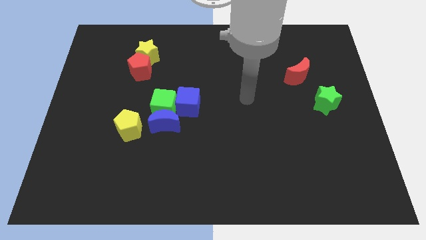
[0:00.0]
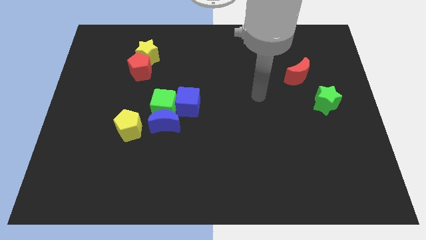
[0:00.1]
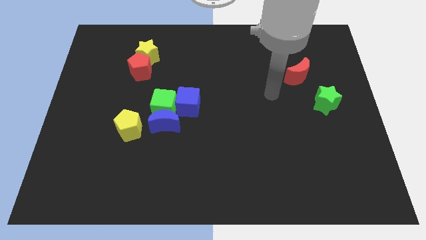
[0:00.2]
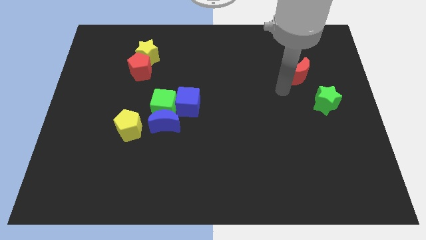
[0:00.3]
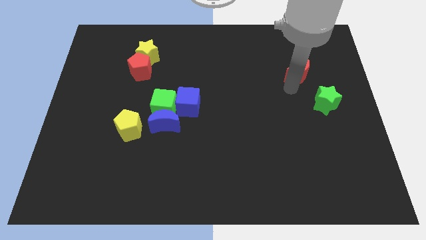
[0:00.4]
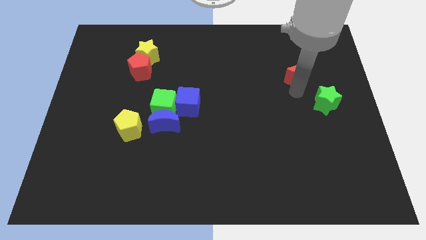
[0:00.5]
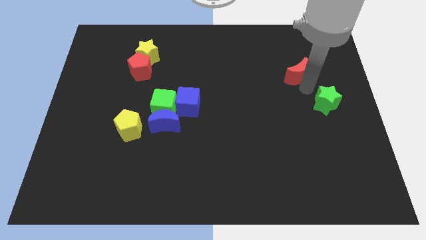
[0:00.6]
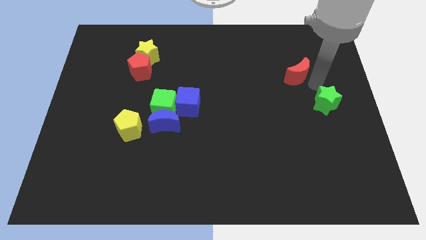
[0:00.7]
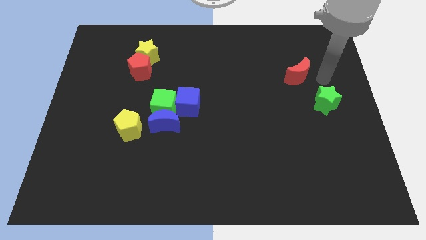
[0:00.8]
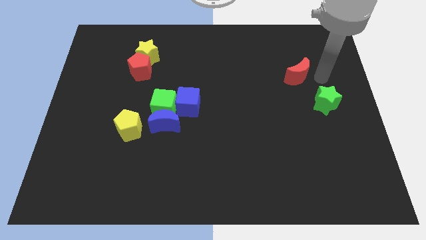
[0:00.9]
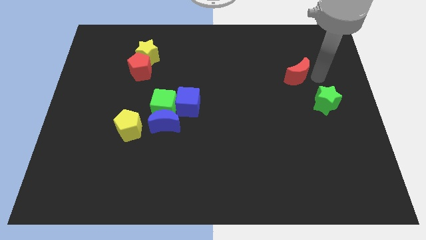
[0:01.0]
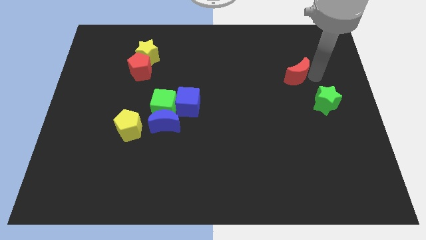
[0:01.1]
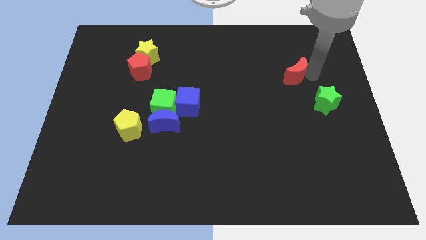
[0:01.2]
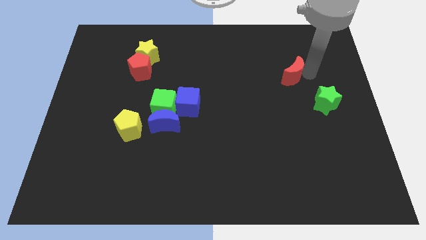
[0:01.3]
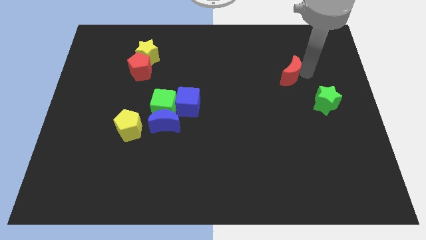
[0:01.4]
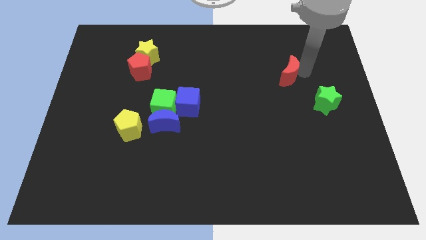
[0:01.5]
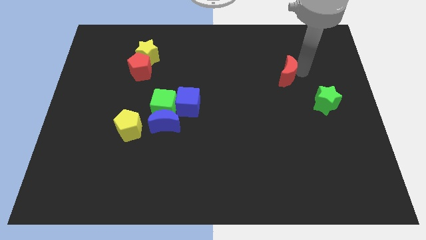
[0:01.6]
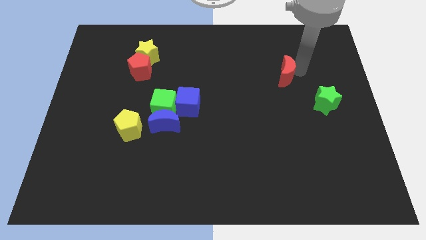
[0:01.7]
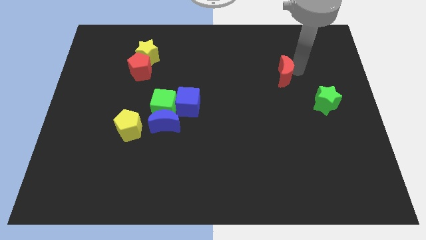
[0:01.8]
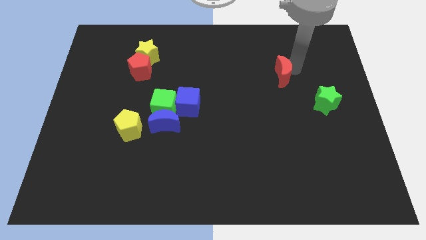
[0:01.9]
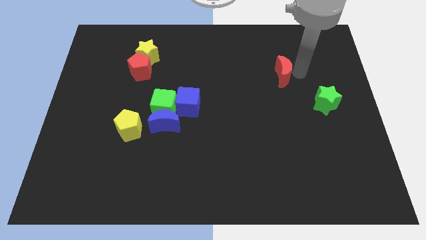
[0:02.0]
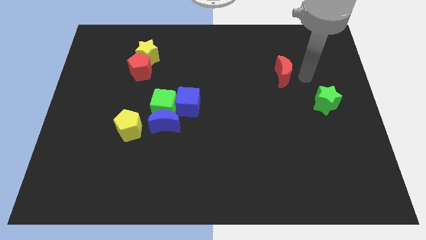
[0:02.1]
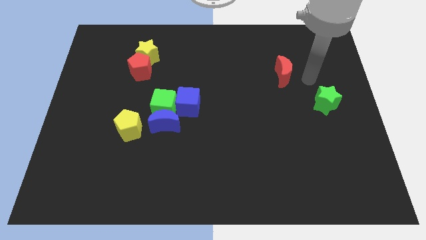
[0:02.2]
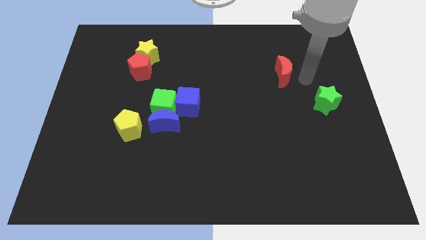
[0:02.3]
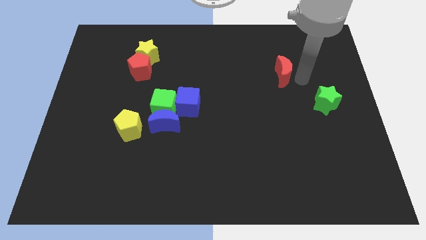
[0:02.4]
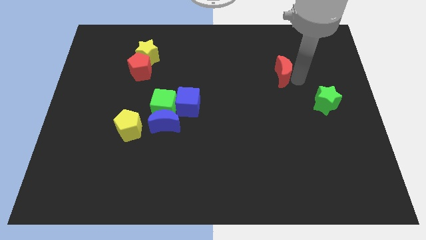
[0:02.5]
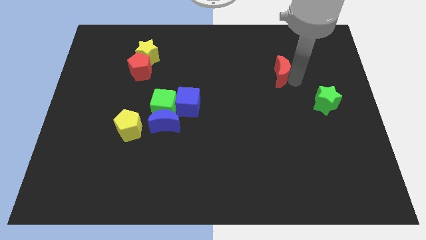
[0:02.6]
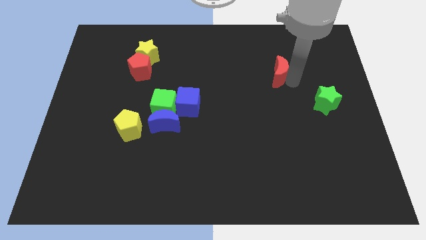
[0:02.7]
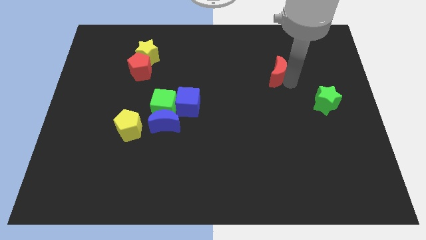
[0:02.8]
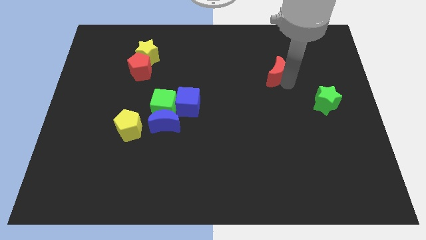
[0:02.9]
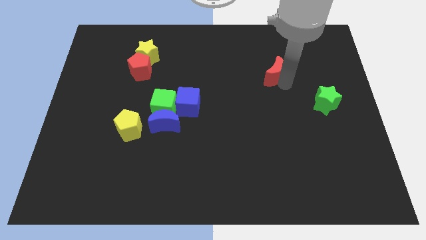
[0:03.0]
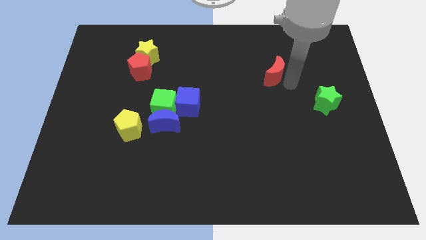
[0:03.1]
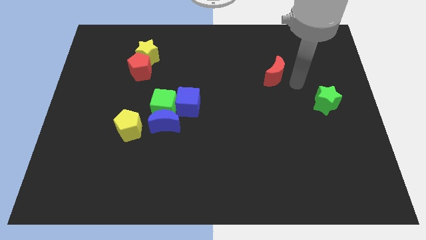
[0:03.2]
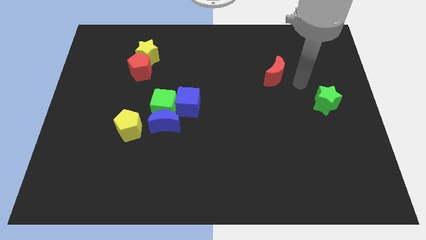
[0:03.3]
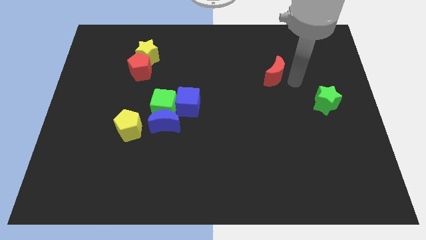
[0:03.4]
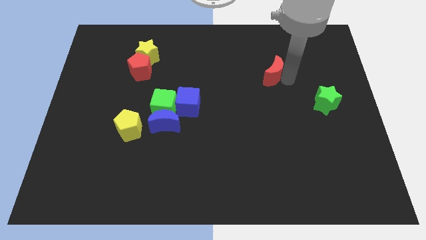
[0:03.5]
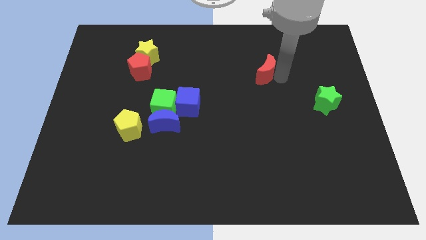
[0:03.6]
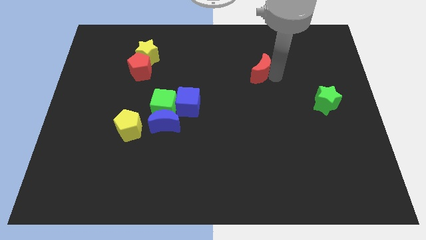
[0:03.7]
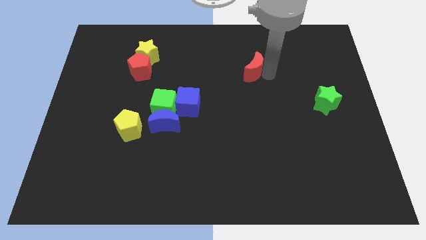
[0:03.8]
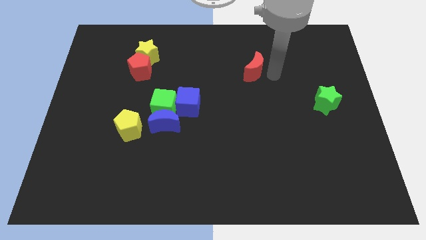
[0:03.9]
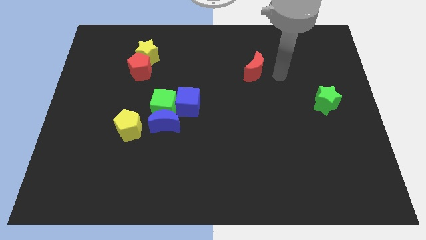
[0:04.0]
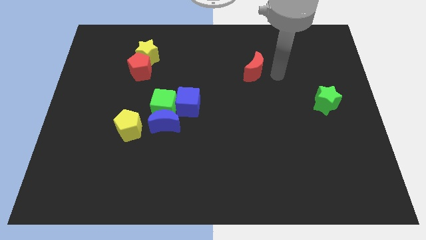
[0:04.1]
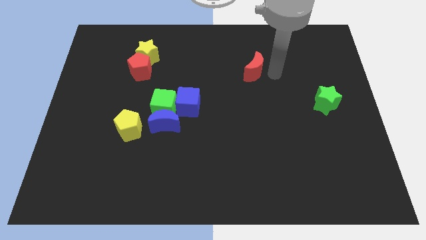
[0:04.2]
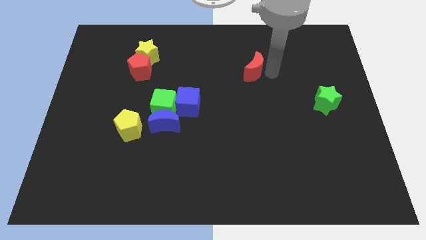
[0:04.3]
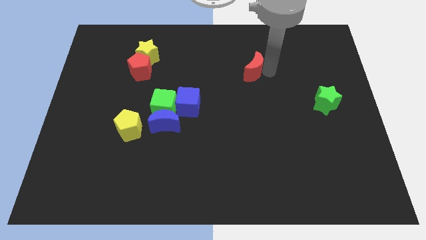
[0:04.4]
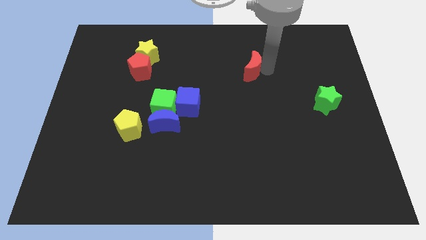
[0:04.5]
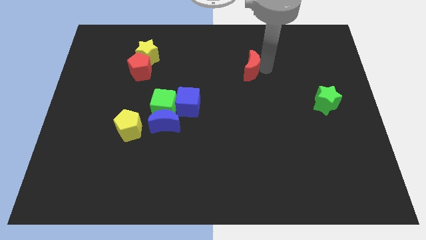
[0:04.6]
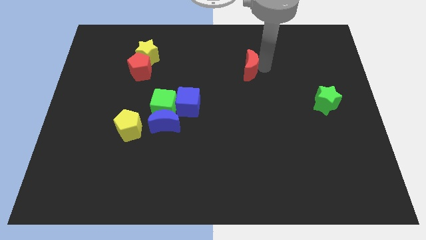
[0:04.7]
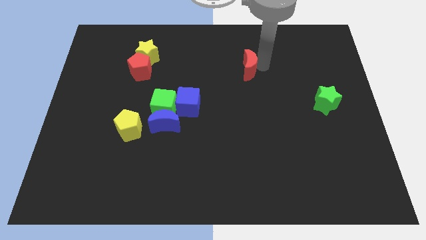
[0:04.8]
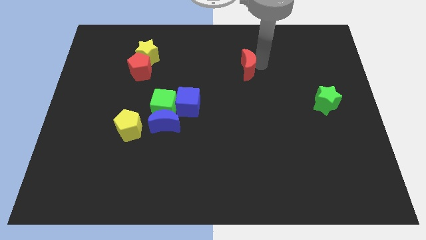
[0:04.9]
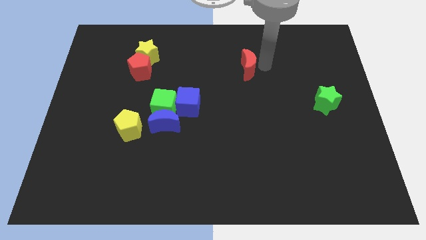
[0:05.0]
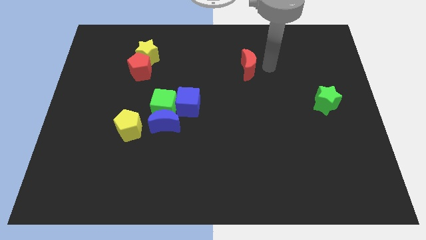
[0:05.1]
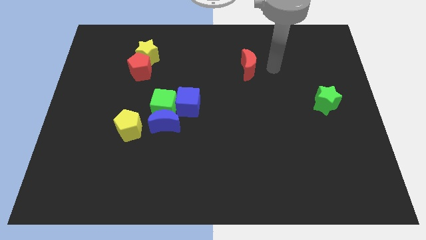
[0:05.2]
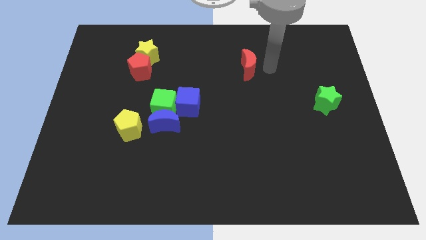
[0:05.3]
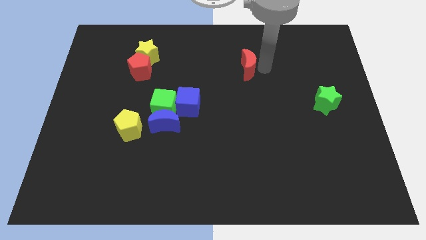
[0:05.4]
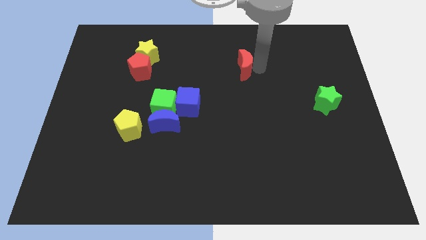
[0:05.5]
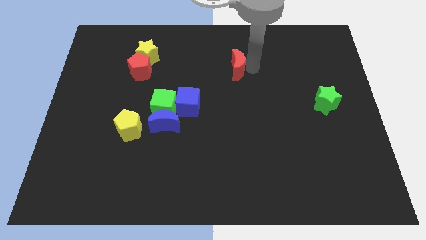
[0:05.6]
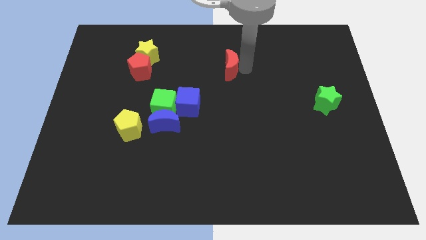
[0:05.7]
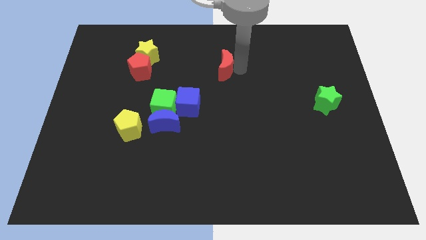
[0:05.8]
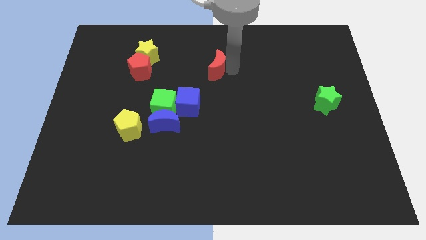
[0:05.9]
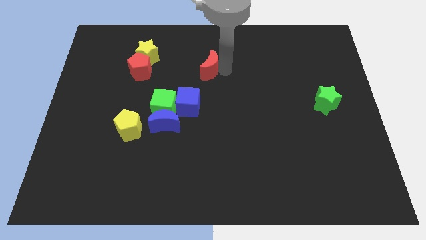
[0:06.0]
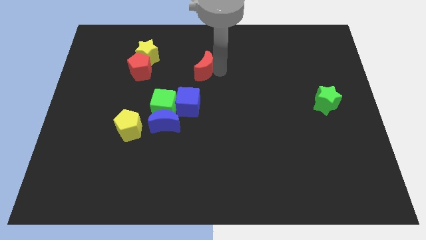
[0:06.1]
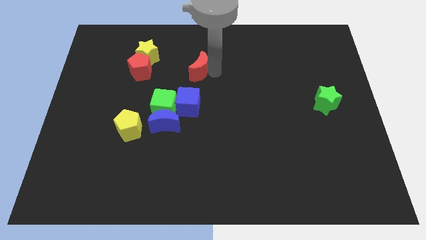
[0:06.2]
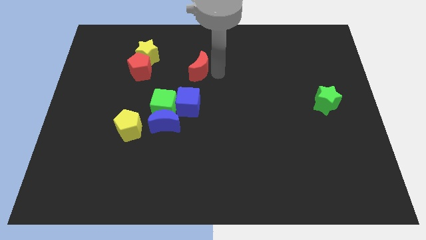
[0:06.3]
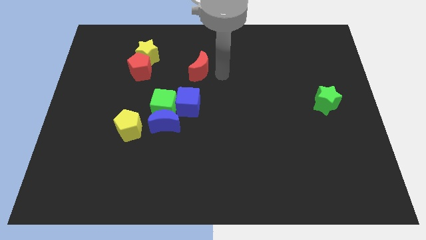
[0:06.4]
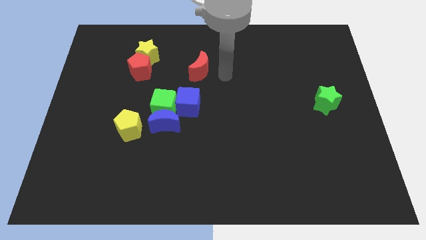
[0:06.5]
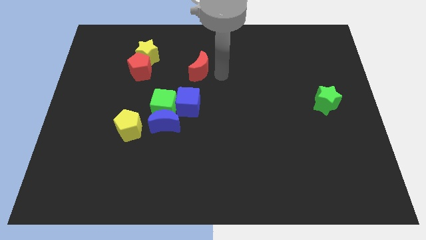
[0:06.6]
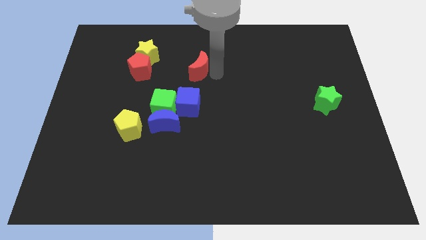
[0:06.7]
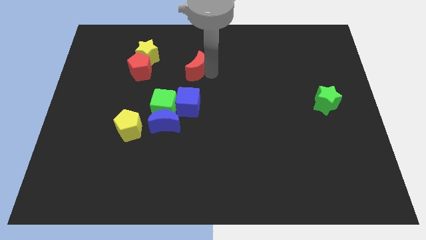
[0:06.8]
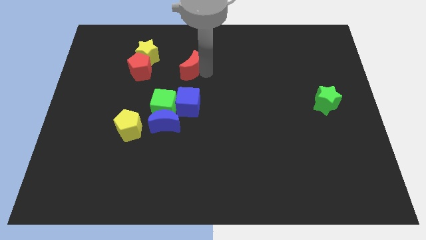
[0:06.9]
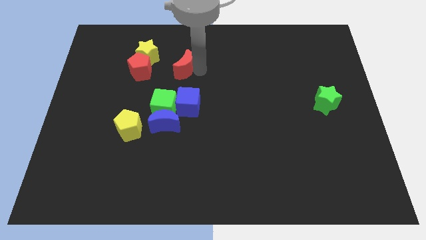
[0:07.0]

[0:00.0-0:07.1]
put the red moon to the bottom right side of the yellow star
